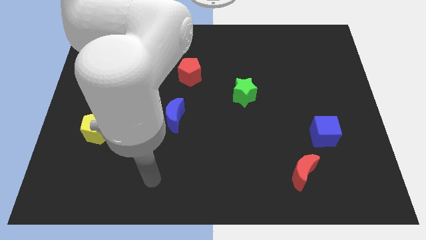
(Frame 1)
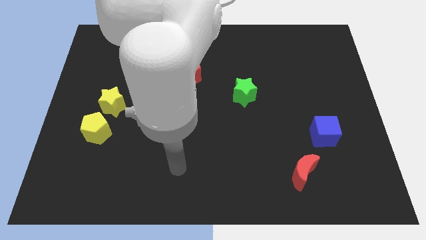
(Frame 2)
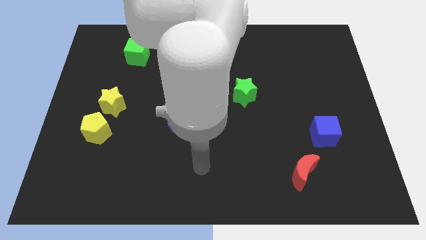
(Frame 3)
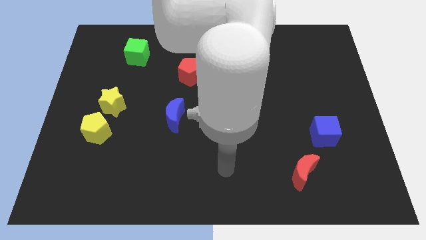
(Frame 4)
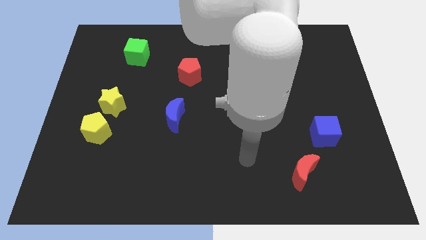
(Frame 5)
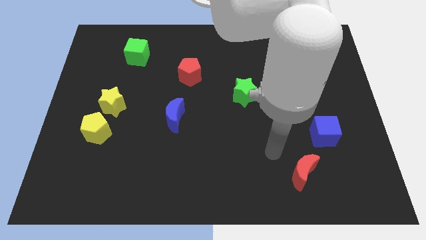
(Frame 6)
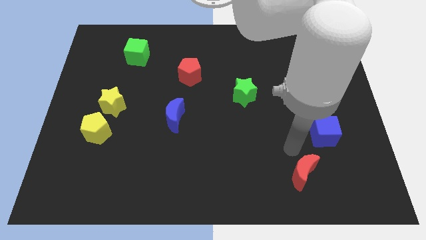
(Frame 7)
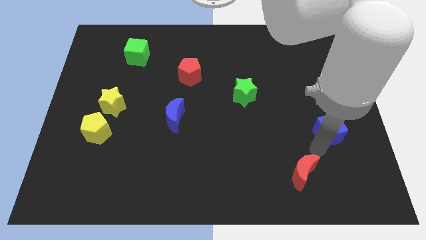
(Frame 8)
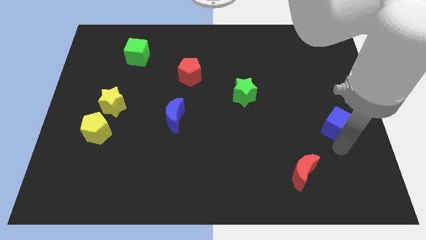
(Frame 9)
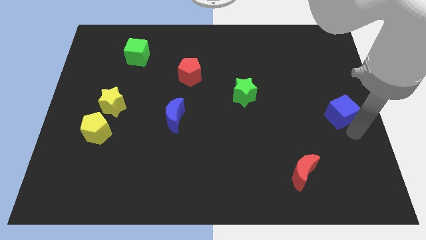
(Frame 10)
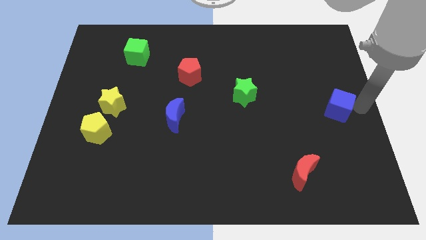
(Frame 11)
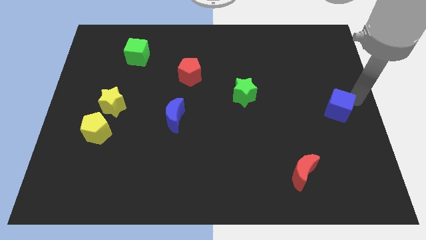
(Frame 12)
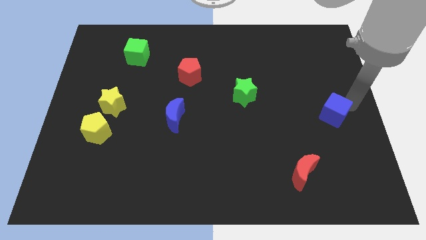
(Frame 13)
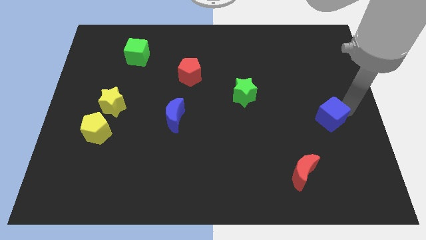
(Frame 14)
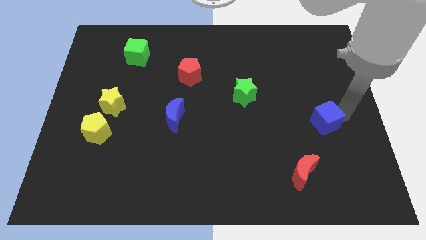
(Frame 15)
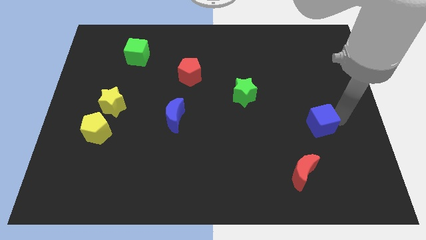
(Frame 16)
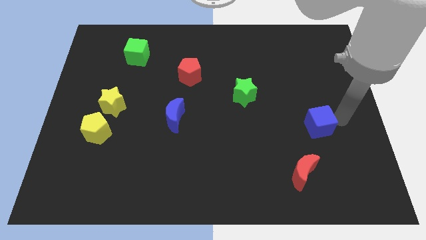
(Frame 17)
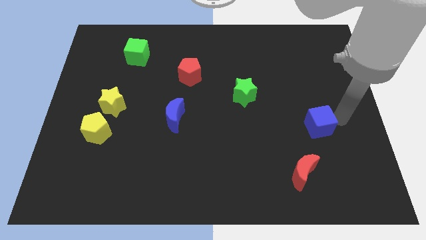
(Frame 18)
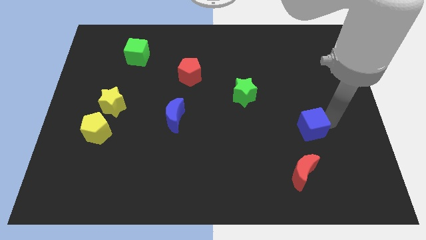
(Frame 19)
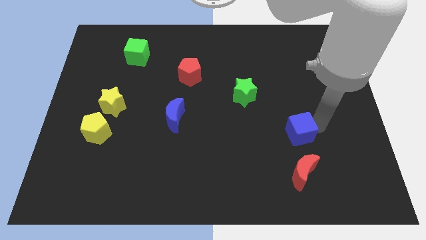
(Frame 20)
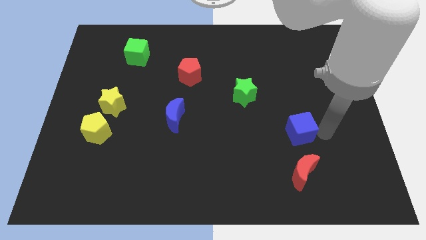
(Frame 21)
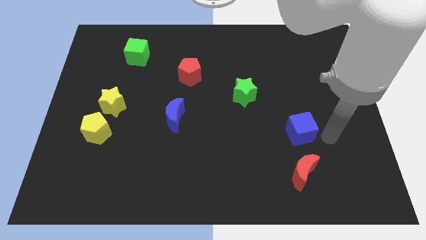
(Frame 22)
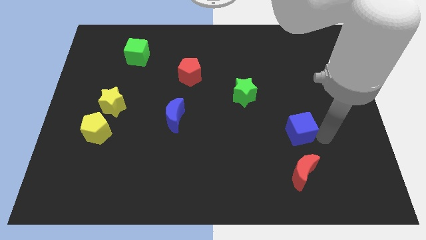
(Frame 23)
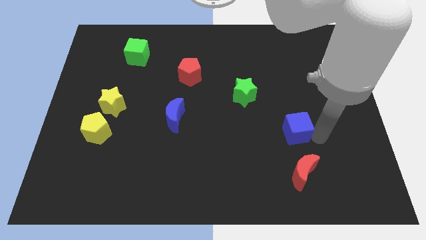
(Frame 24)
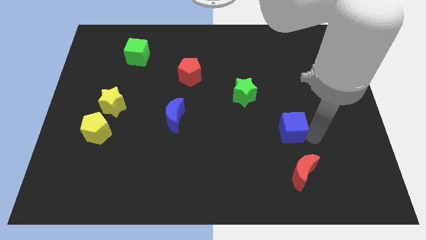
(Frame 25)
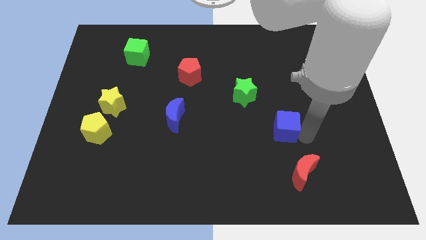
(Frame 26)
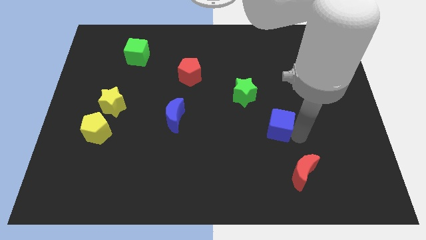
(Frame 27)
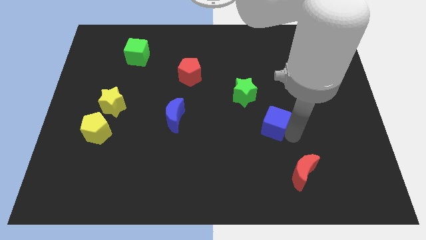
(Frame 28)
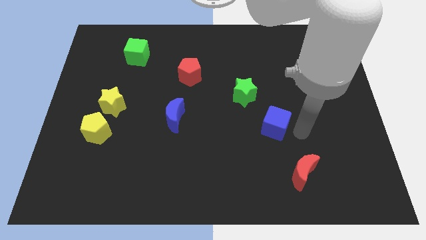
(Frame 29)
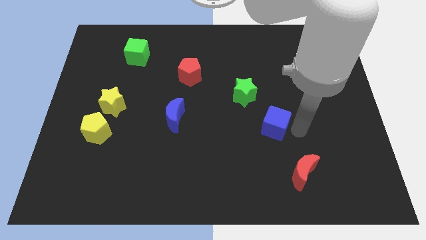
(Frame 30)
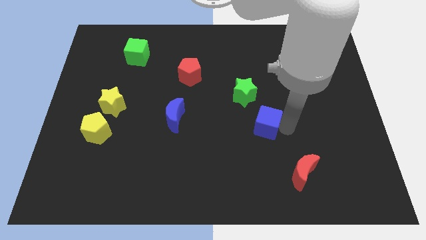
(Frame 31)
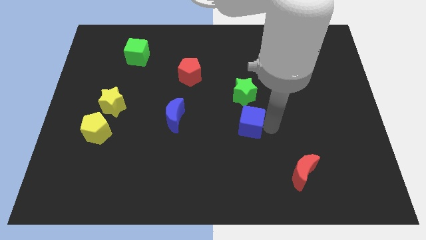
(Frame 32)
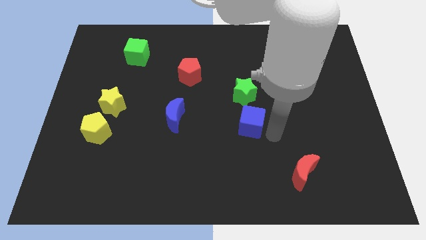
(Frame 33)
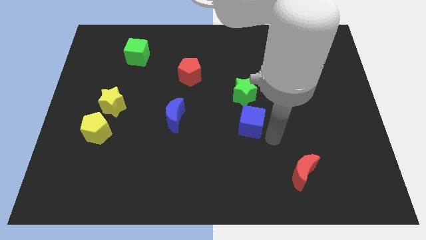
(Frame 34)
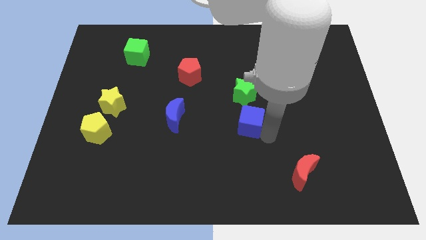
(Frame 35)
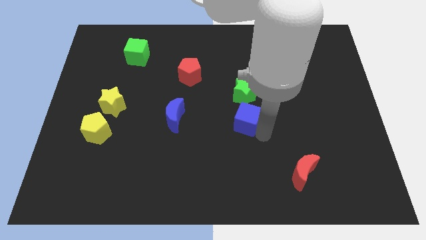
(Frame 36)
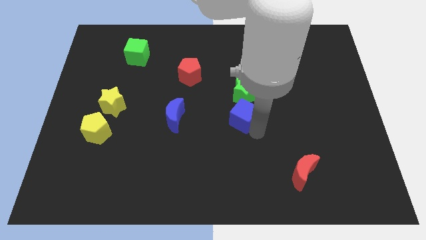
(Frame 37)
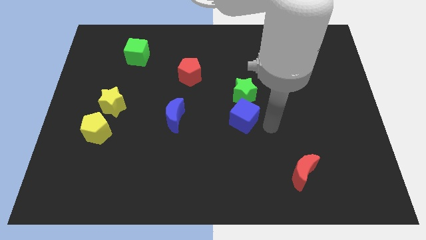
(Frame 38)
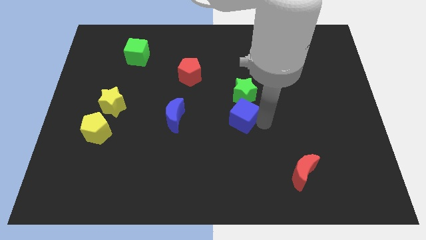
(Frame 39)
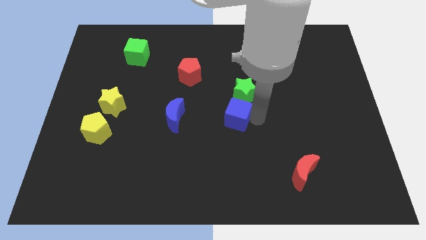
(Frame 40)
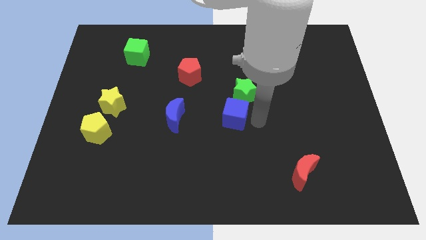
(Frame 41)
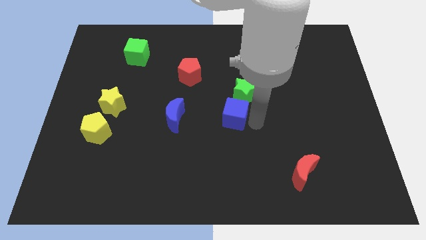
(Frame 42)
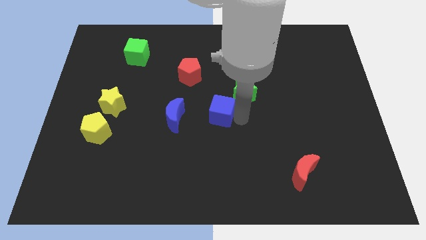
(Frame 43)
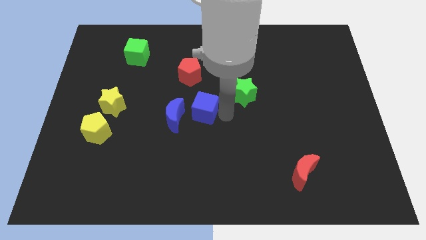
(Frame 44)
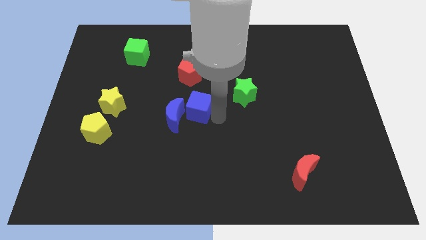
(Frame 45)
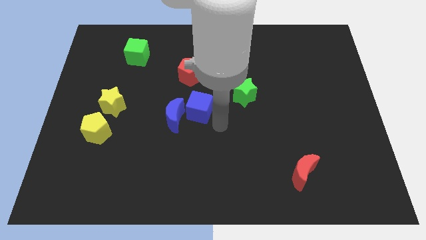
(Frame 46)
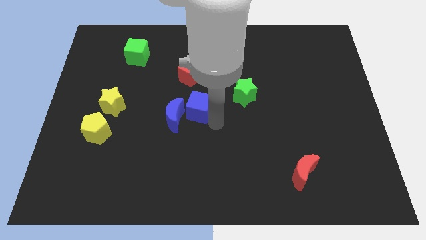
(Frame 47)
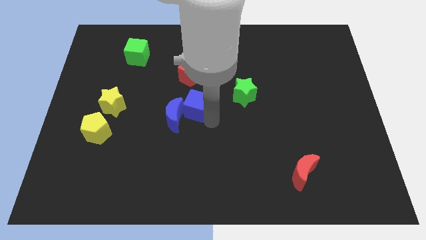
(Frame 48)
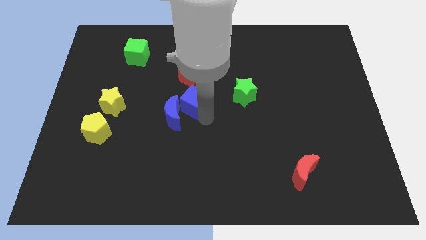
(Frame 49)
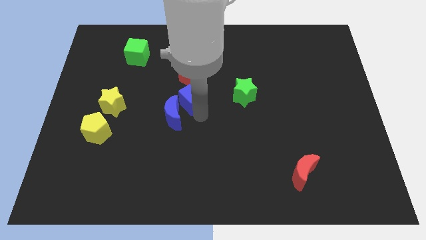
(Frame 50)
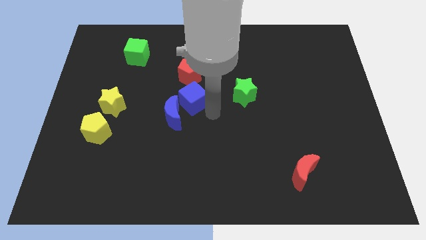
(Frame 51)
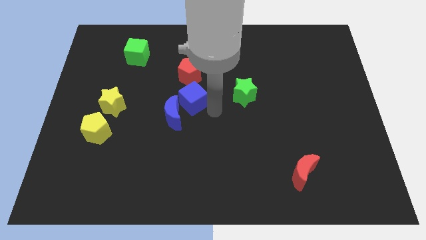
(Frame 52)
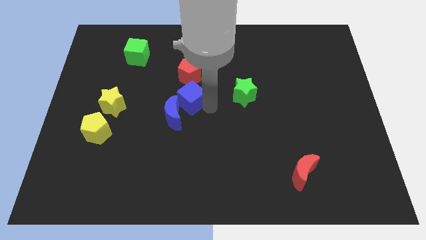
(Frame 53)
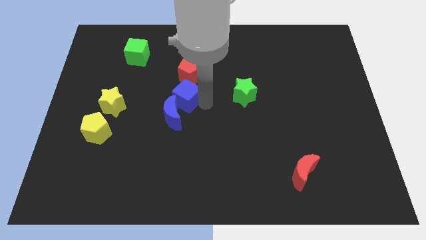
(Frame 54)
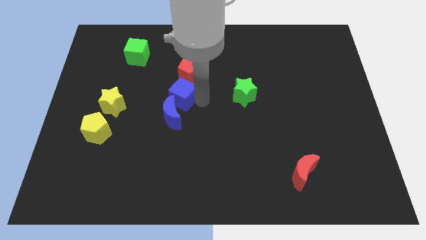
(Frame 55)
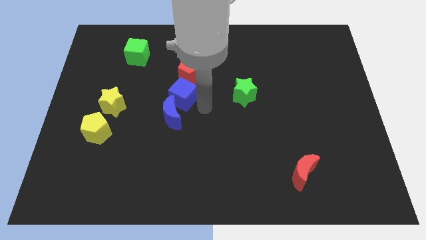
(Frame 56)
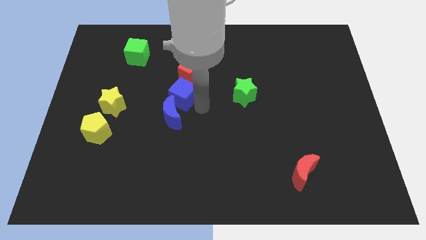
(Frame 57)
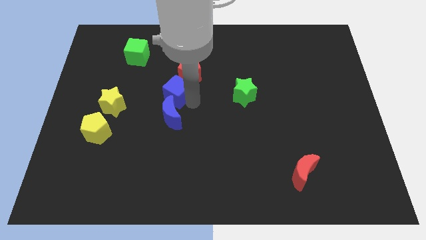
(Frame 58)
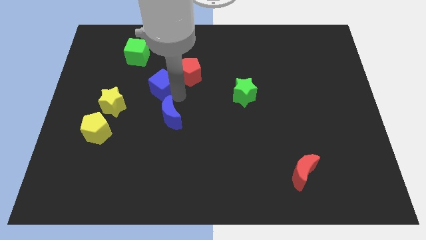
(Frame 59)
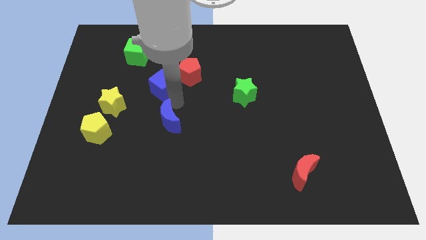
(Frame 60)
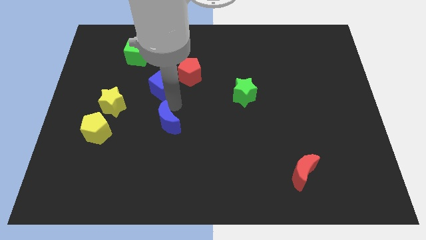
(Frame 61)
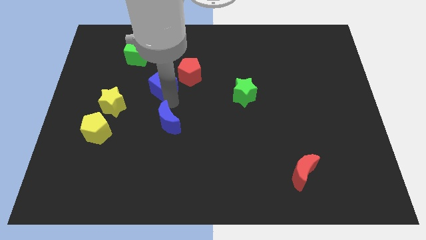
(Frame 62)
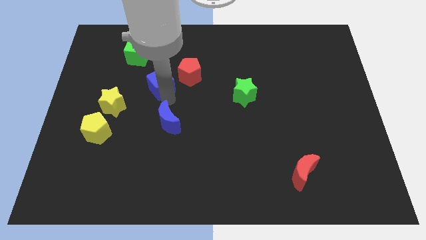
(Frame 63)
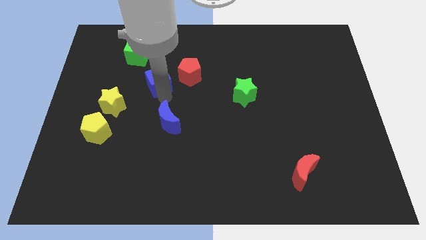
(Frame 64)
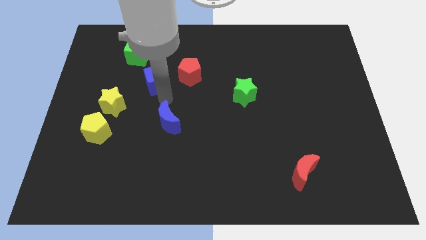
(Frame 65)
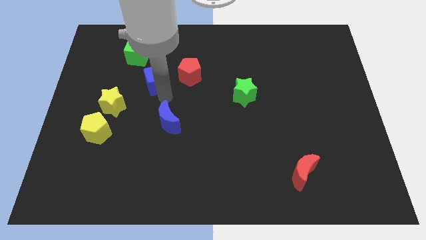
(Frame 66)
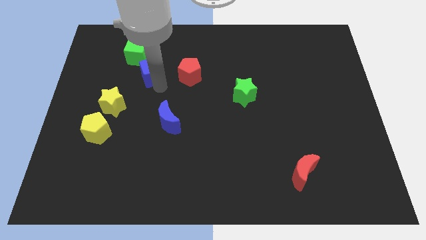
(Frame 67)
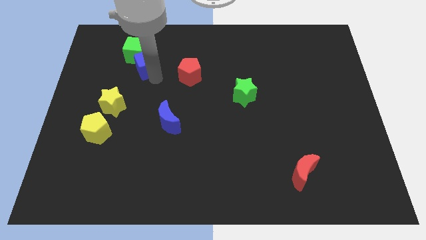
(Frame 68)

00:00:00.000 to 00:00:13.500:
push the blue cube to the green cube

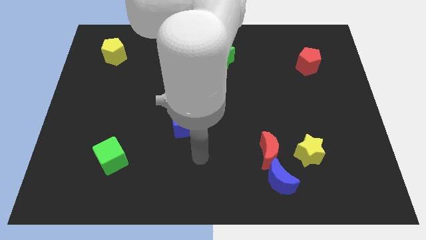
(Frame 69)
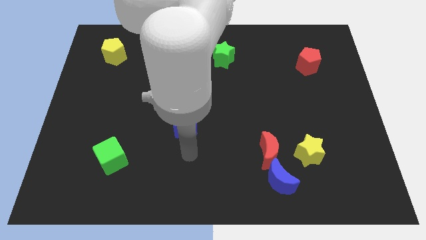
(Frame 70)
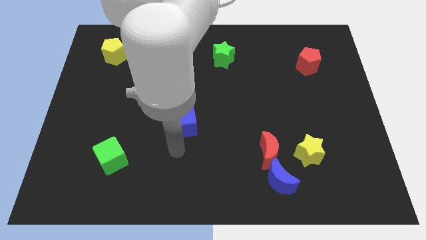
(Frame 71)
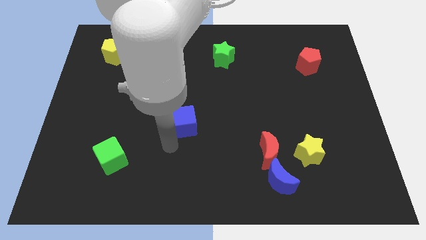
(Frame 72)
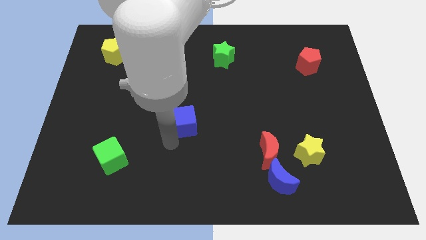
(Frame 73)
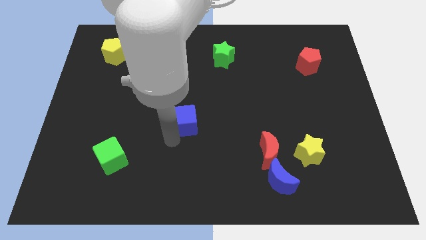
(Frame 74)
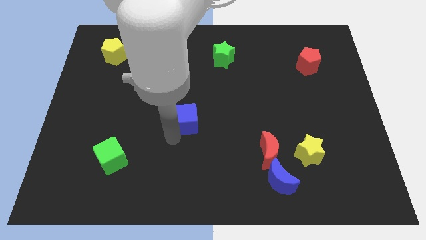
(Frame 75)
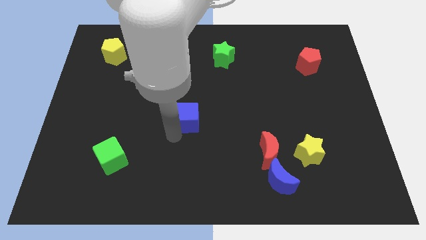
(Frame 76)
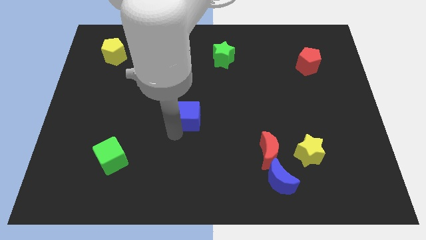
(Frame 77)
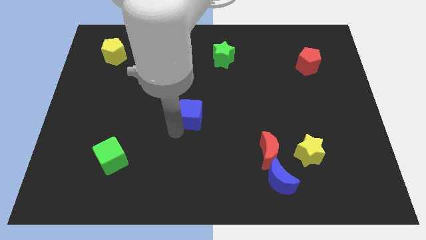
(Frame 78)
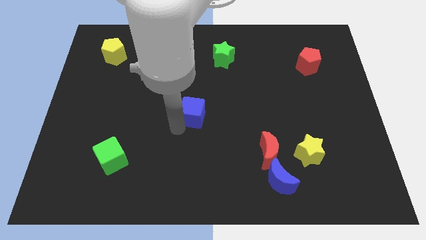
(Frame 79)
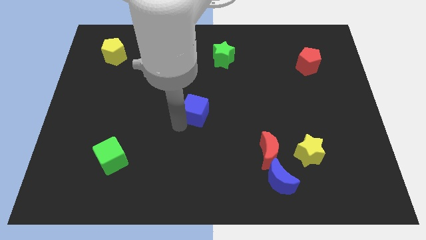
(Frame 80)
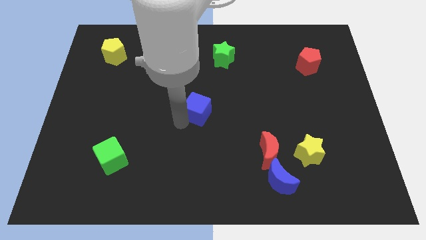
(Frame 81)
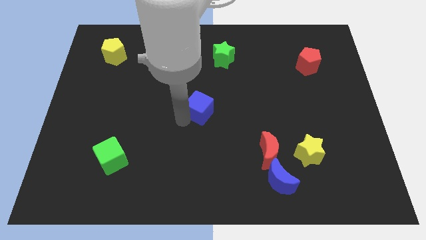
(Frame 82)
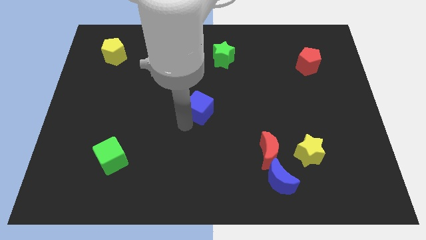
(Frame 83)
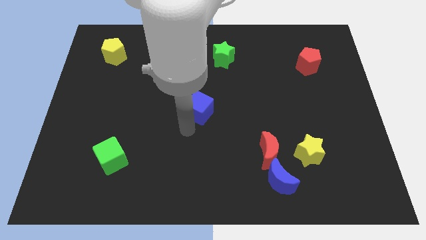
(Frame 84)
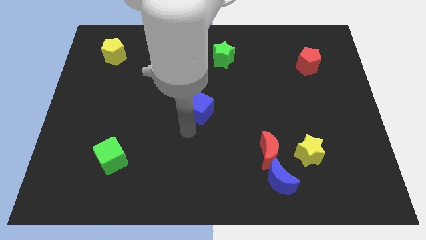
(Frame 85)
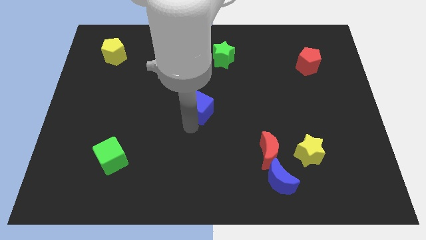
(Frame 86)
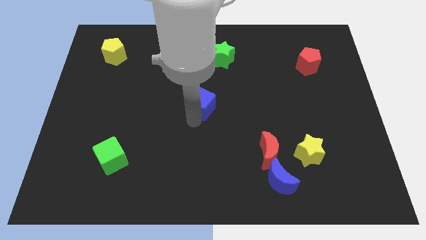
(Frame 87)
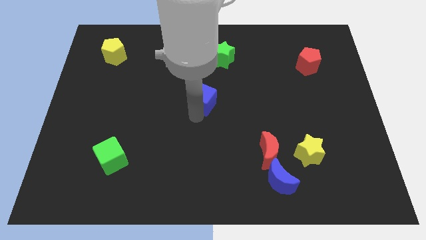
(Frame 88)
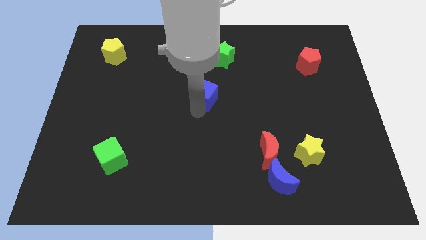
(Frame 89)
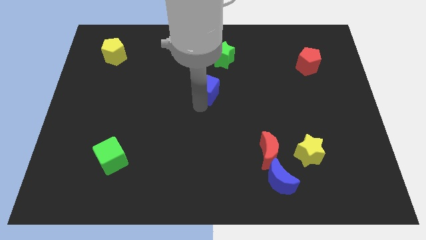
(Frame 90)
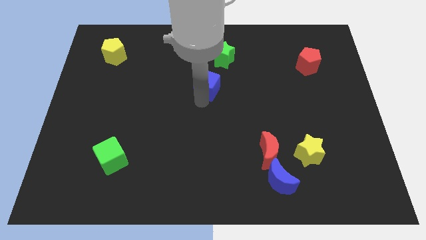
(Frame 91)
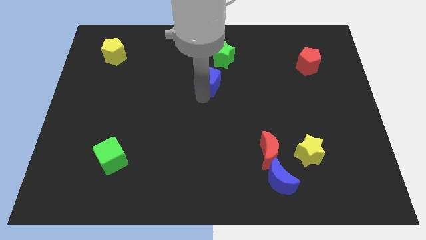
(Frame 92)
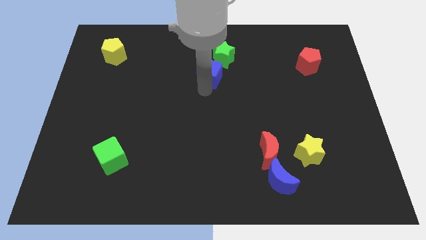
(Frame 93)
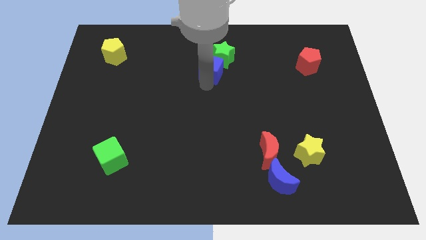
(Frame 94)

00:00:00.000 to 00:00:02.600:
slide the blue cube to the green star
